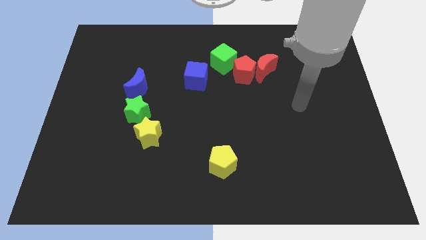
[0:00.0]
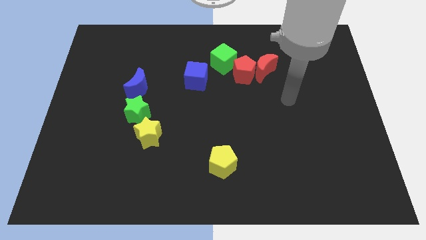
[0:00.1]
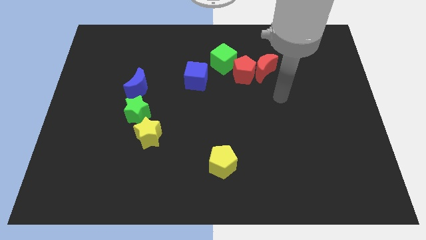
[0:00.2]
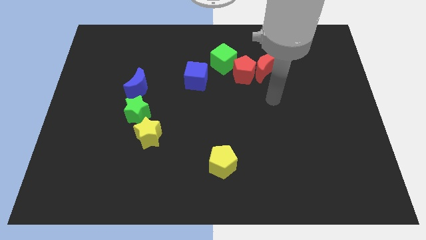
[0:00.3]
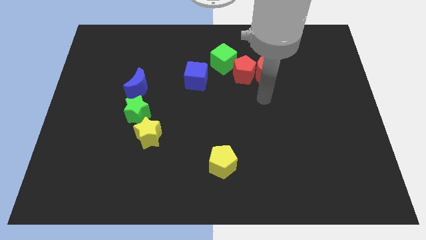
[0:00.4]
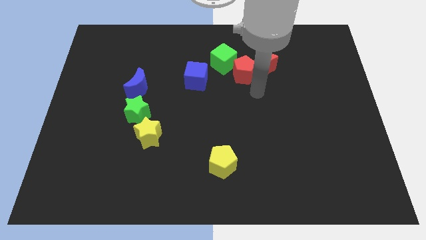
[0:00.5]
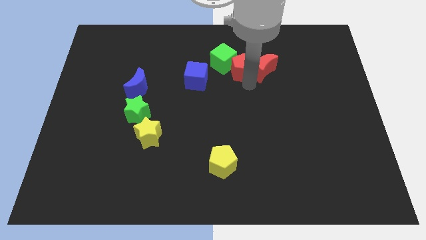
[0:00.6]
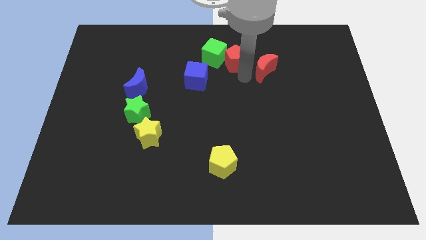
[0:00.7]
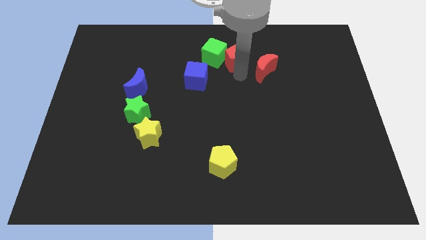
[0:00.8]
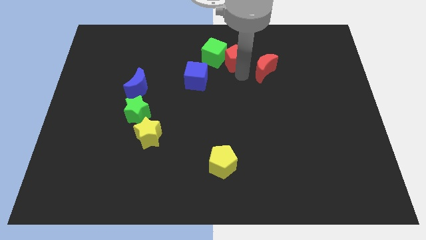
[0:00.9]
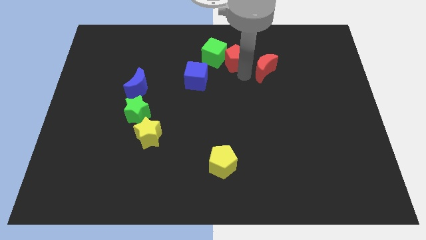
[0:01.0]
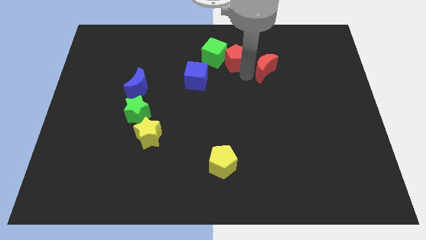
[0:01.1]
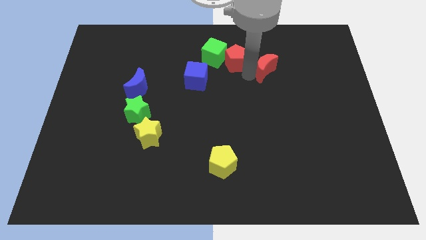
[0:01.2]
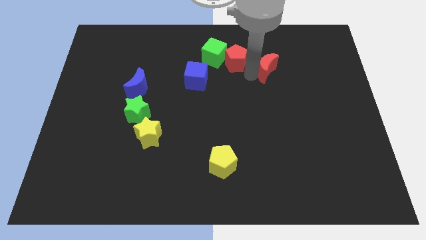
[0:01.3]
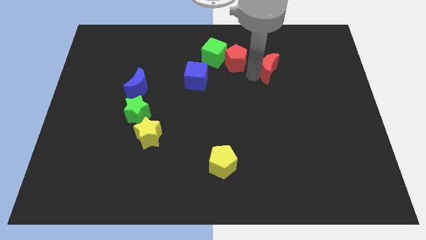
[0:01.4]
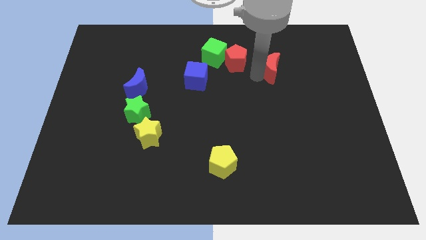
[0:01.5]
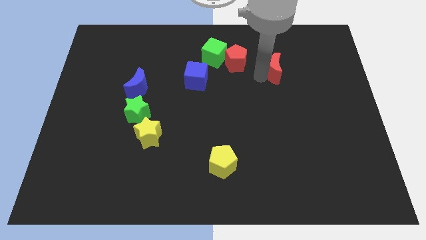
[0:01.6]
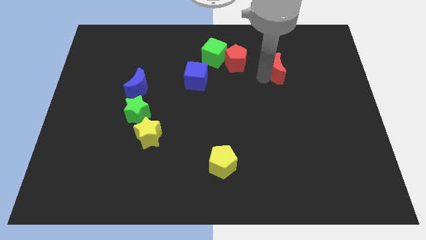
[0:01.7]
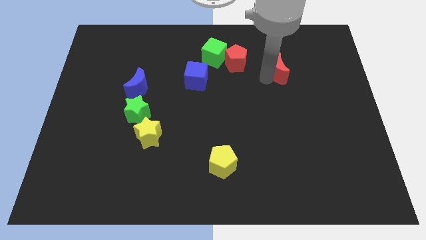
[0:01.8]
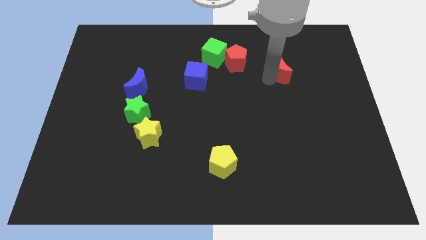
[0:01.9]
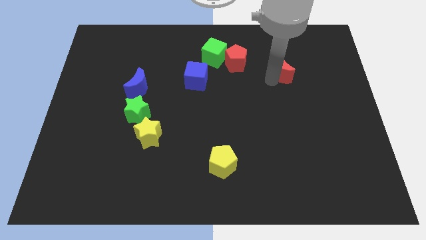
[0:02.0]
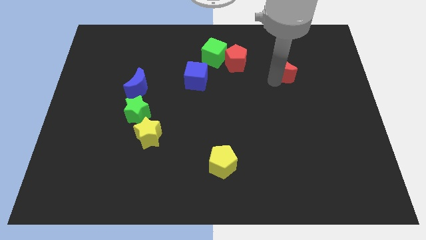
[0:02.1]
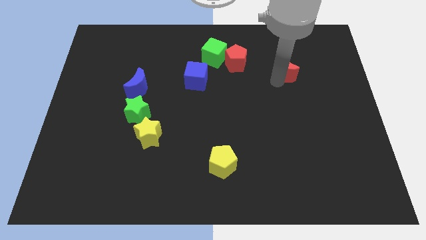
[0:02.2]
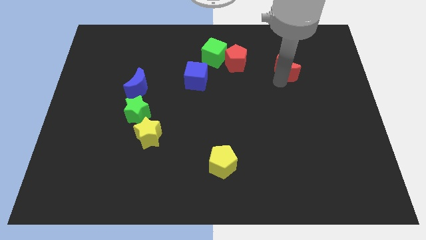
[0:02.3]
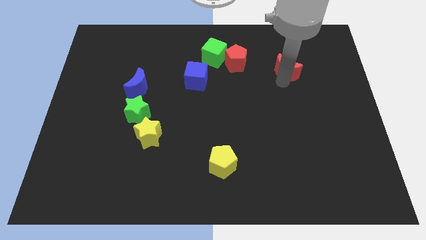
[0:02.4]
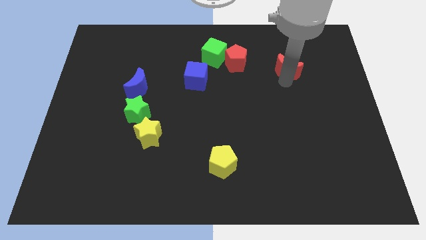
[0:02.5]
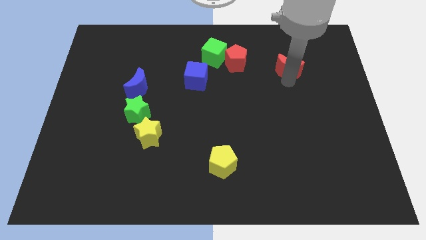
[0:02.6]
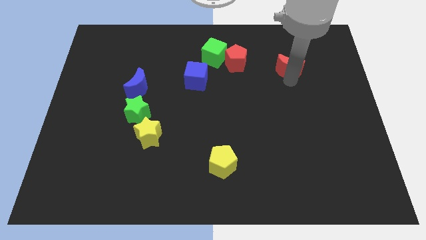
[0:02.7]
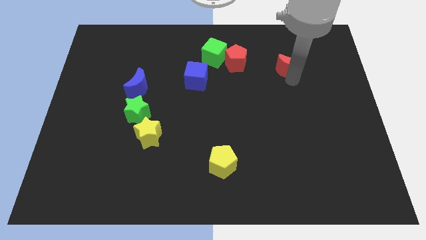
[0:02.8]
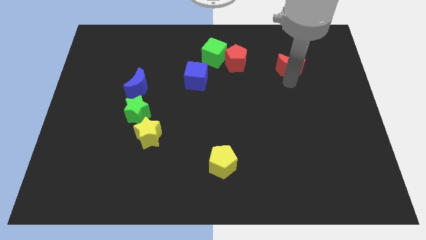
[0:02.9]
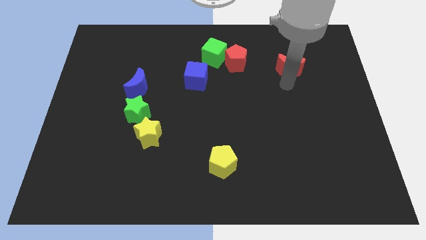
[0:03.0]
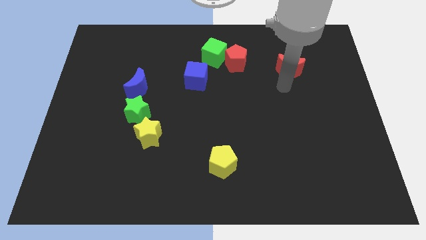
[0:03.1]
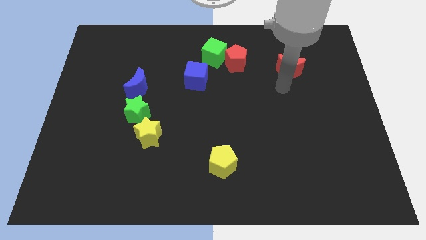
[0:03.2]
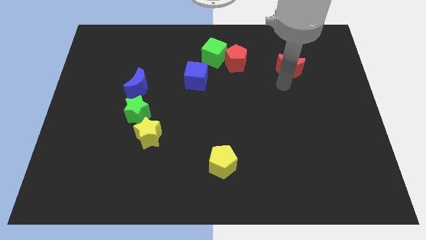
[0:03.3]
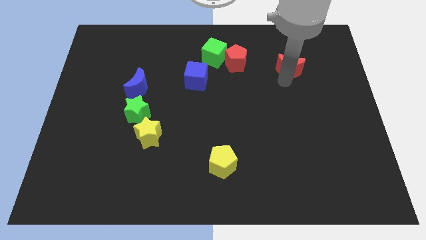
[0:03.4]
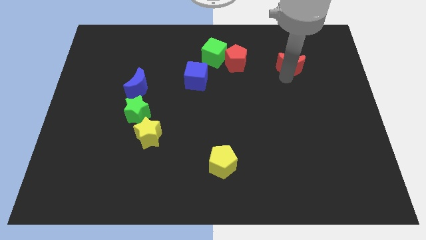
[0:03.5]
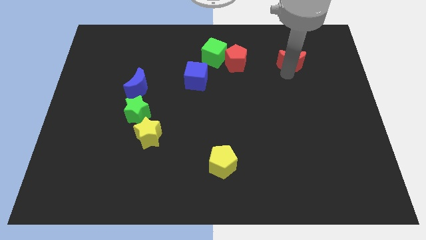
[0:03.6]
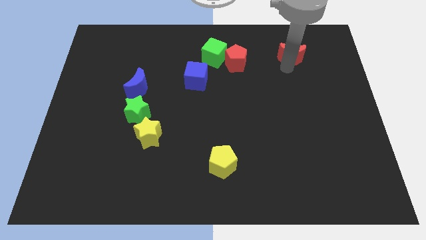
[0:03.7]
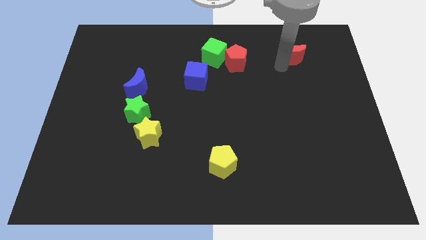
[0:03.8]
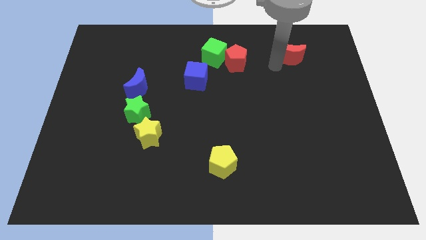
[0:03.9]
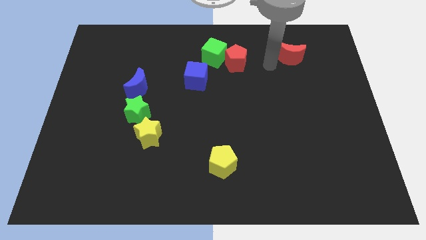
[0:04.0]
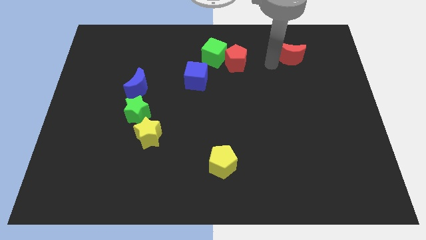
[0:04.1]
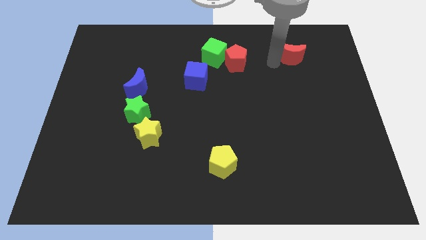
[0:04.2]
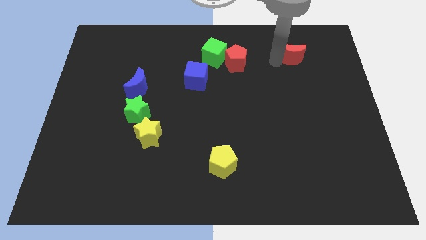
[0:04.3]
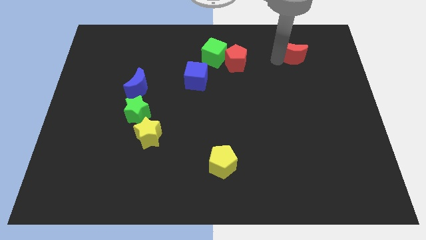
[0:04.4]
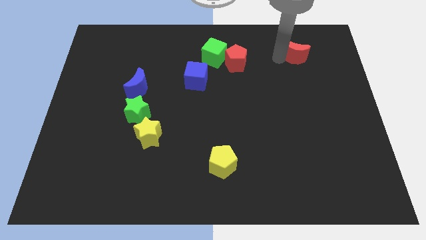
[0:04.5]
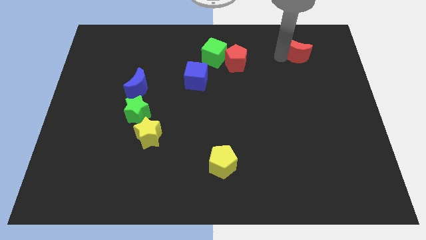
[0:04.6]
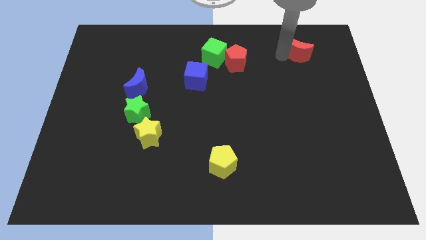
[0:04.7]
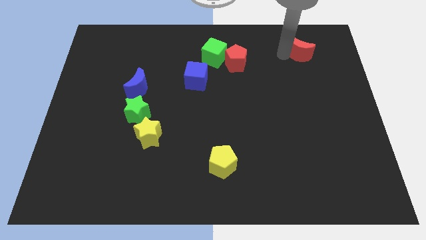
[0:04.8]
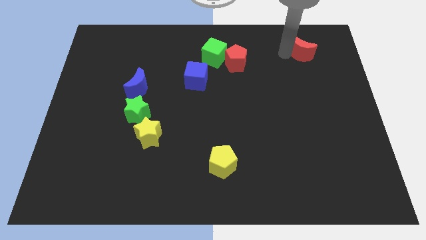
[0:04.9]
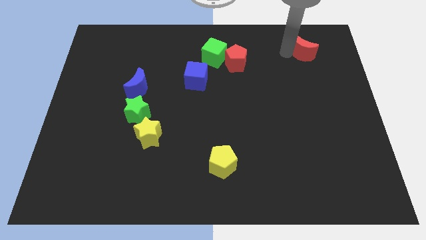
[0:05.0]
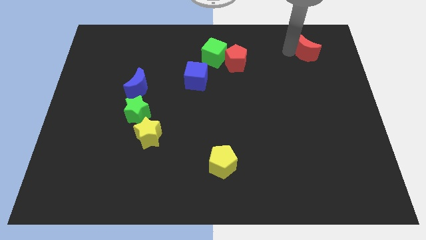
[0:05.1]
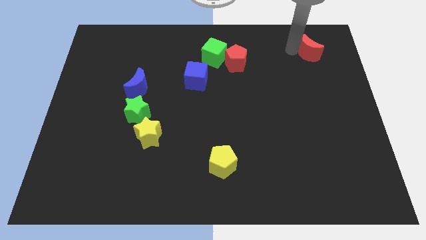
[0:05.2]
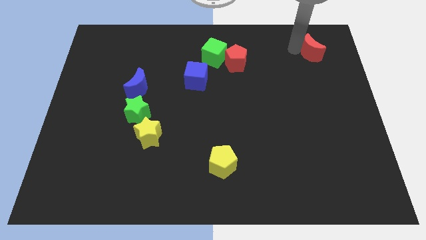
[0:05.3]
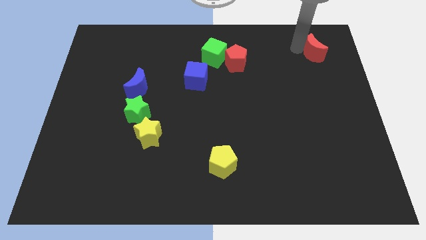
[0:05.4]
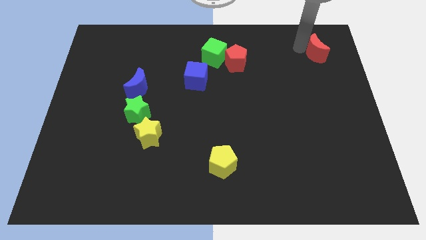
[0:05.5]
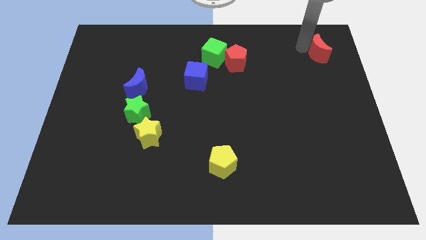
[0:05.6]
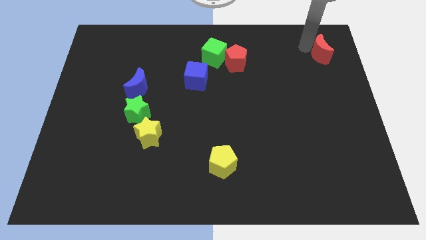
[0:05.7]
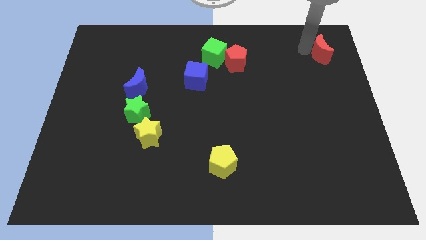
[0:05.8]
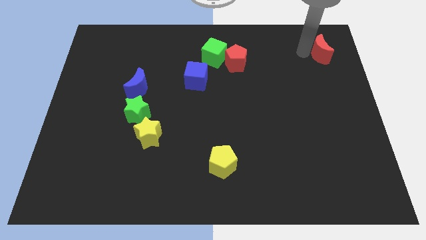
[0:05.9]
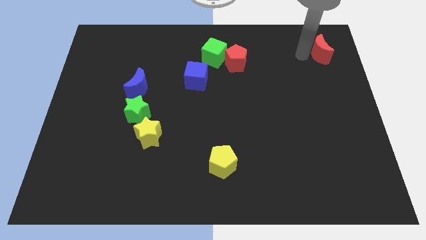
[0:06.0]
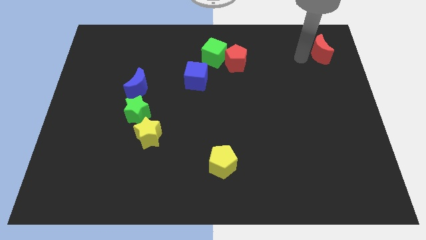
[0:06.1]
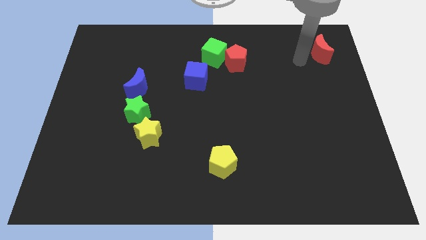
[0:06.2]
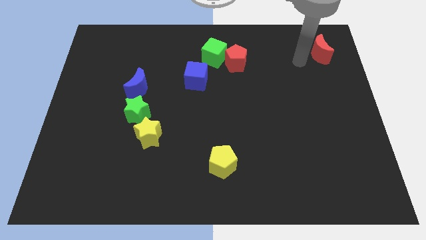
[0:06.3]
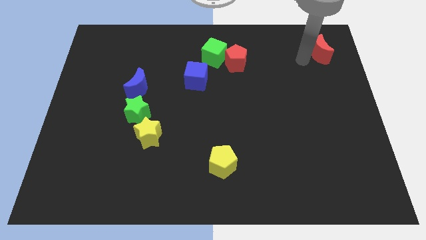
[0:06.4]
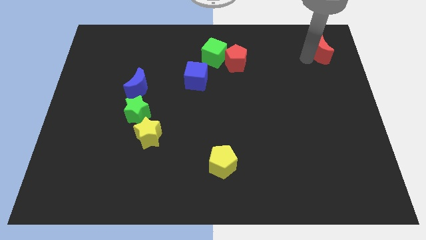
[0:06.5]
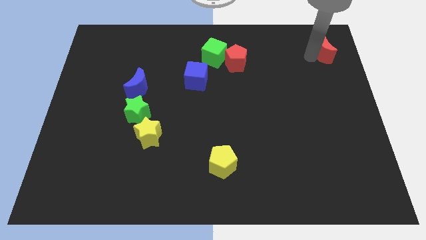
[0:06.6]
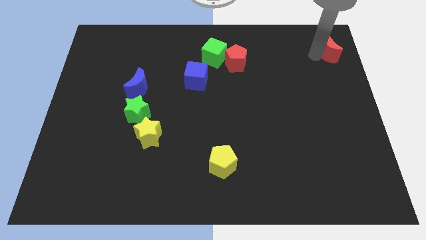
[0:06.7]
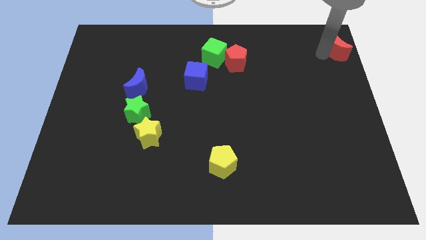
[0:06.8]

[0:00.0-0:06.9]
move the red moon to the upper right corner
